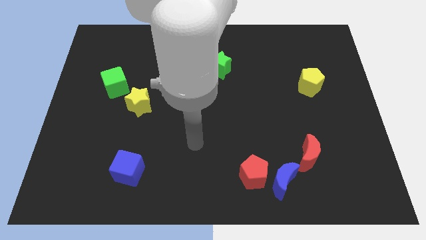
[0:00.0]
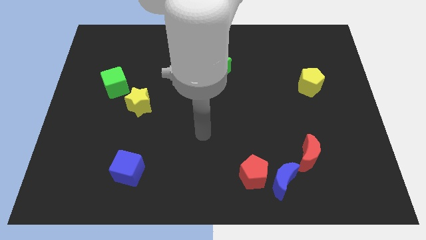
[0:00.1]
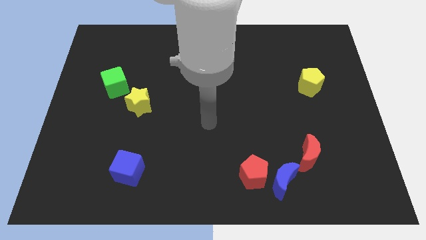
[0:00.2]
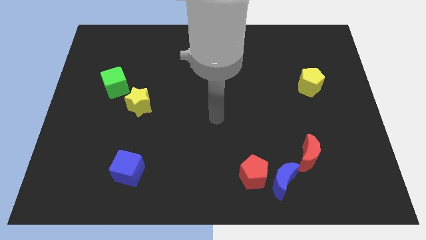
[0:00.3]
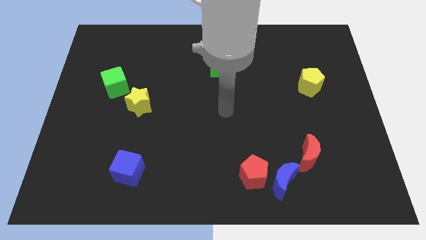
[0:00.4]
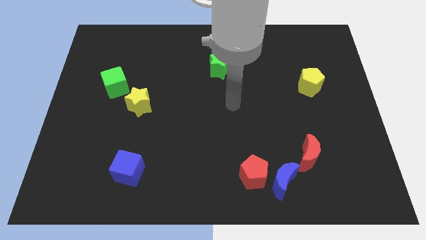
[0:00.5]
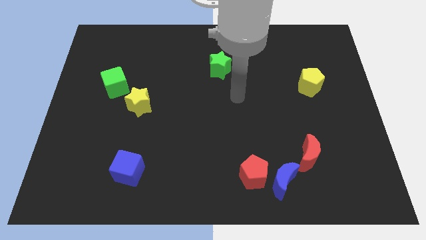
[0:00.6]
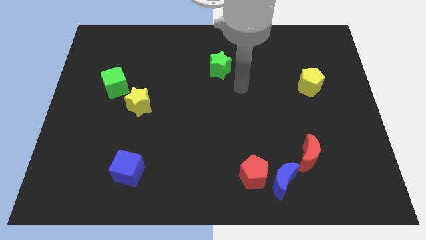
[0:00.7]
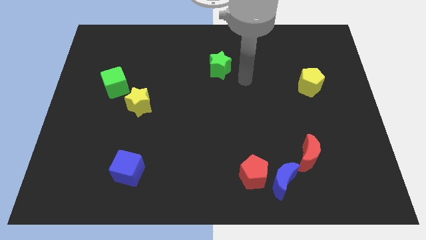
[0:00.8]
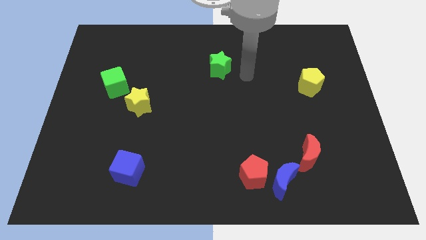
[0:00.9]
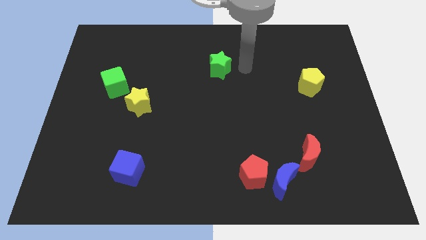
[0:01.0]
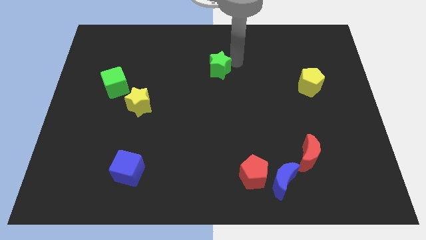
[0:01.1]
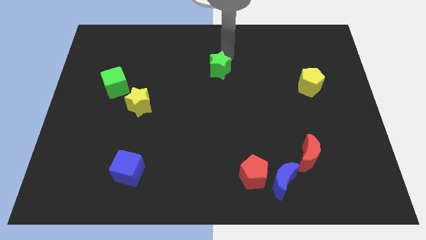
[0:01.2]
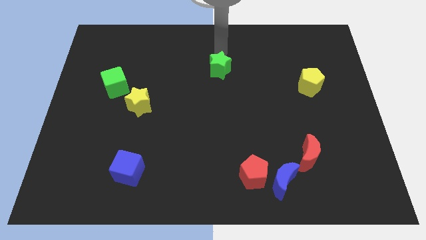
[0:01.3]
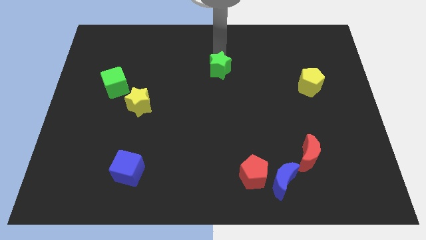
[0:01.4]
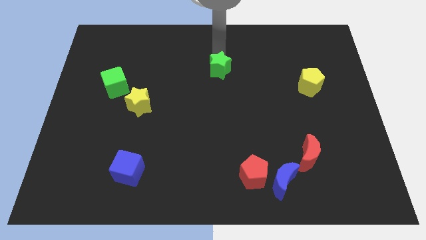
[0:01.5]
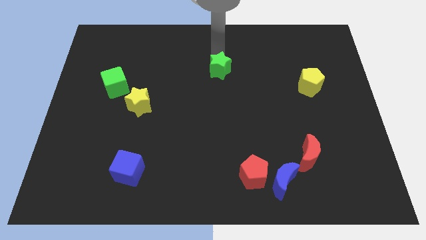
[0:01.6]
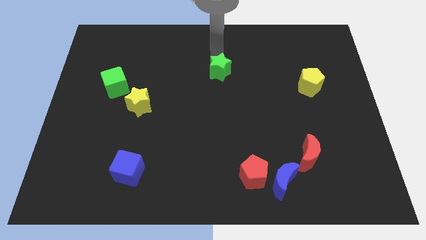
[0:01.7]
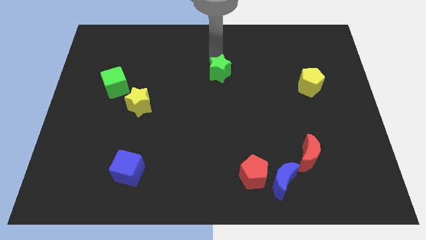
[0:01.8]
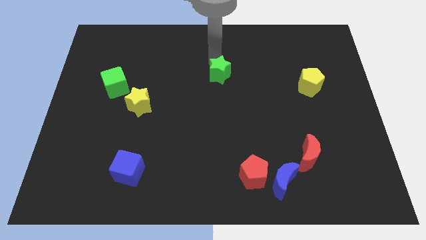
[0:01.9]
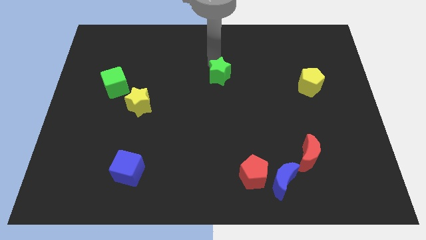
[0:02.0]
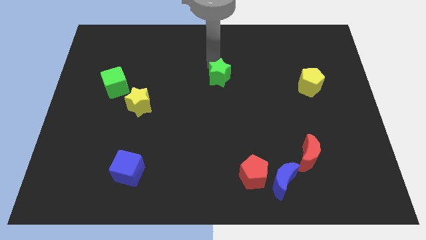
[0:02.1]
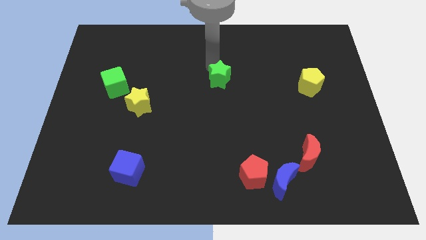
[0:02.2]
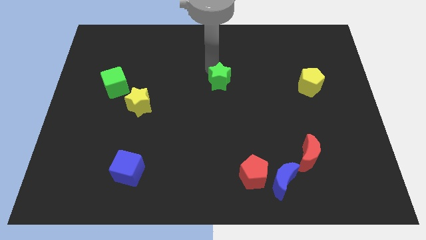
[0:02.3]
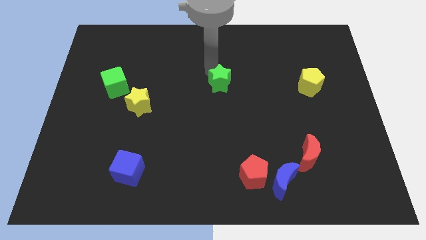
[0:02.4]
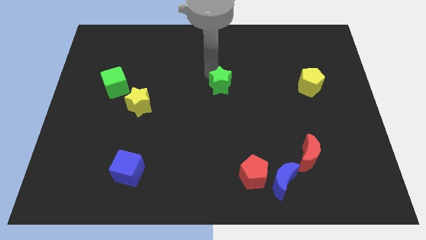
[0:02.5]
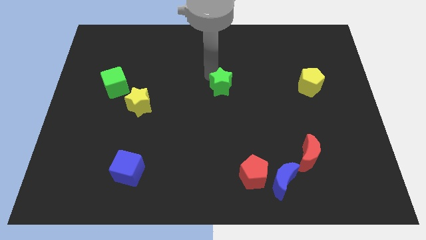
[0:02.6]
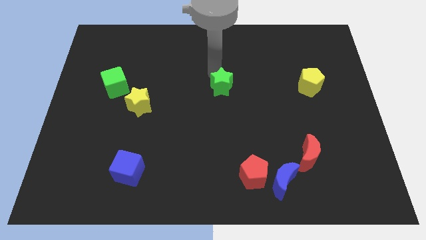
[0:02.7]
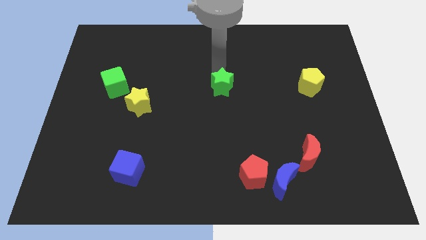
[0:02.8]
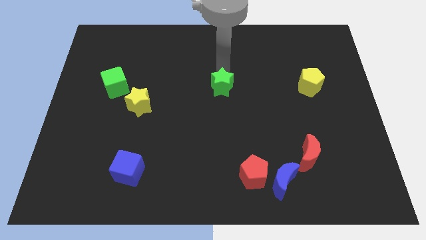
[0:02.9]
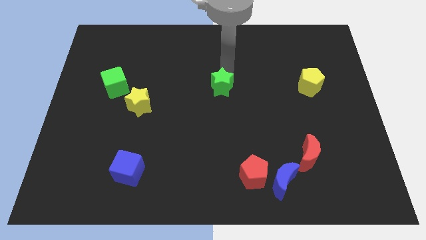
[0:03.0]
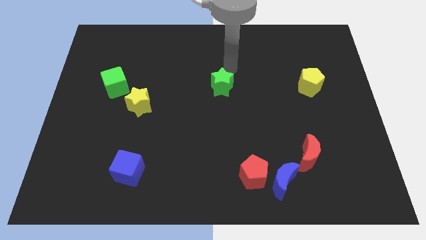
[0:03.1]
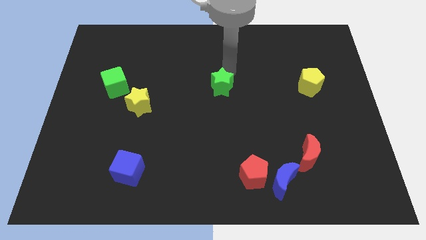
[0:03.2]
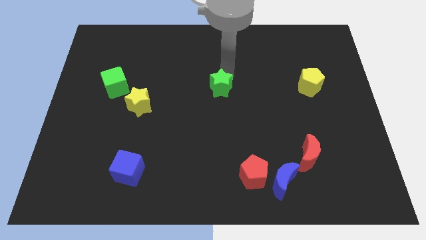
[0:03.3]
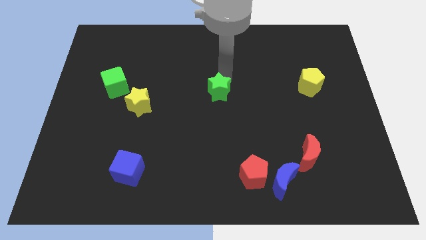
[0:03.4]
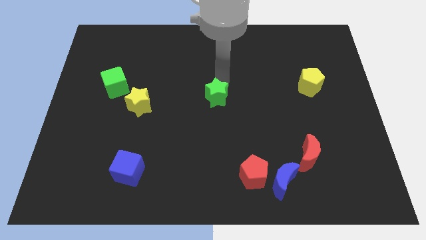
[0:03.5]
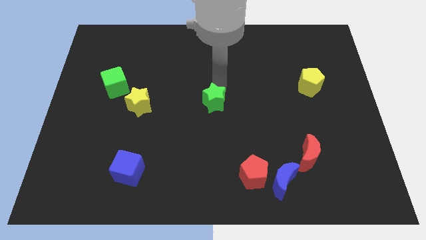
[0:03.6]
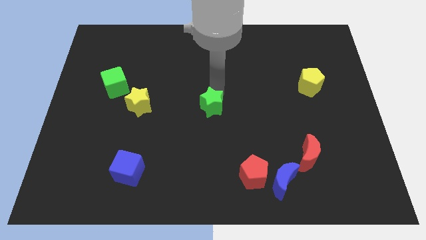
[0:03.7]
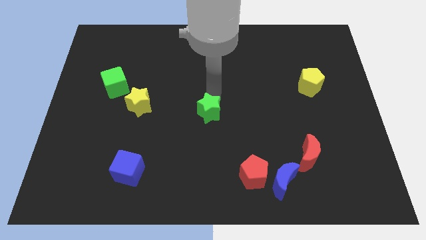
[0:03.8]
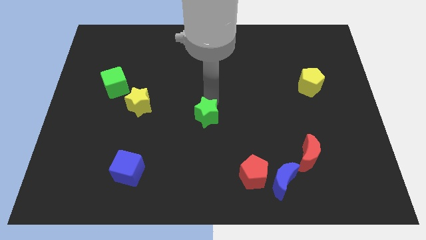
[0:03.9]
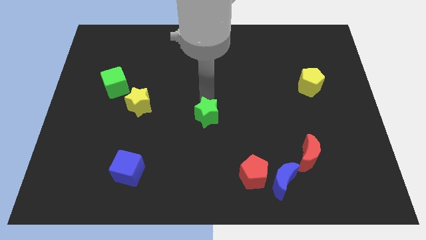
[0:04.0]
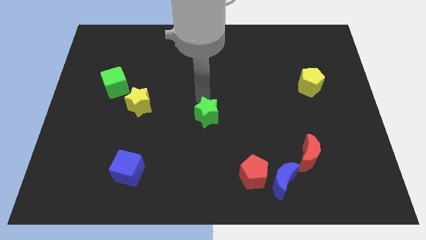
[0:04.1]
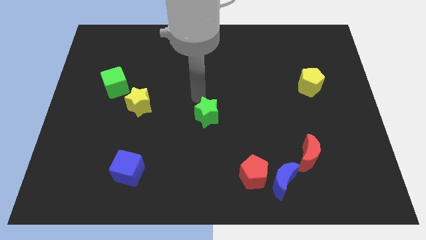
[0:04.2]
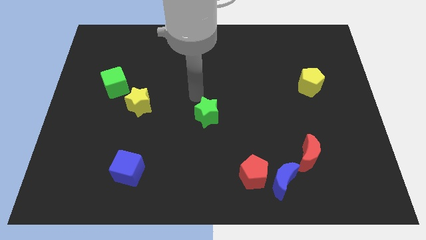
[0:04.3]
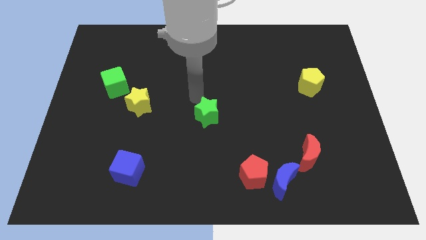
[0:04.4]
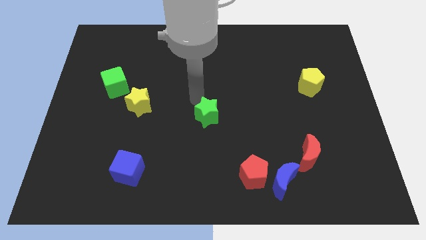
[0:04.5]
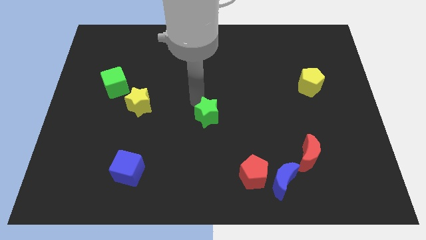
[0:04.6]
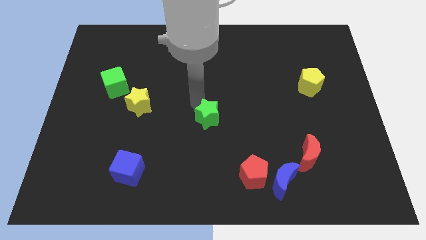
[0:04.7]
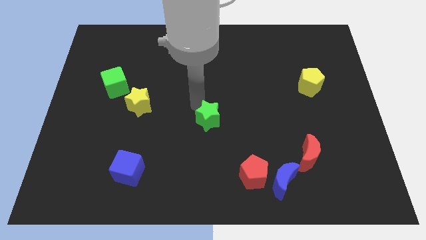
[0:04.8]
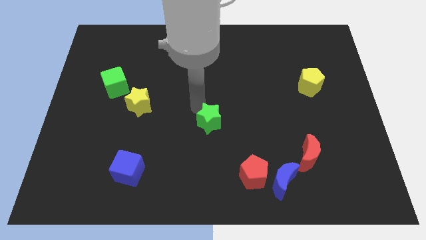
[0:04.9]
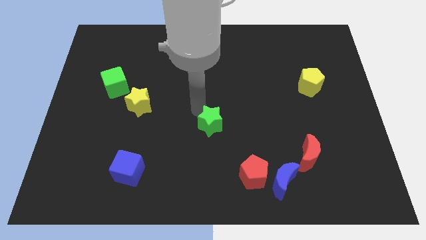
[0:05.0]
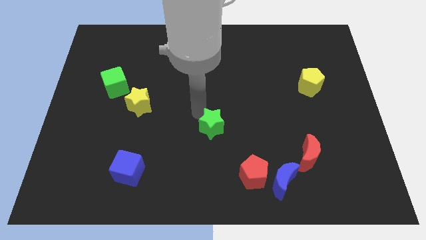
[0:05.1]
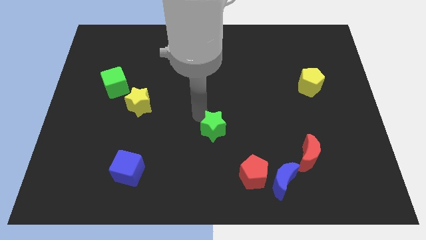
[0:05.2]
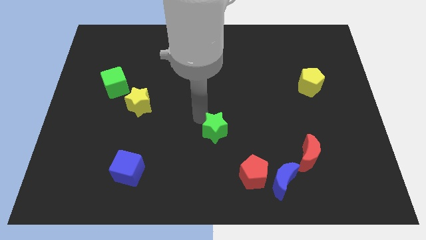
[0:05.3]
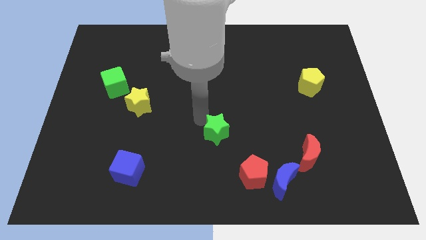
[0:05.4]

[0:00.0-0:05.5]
push the green star downwards

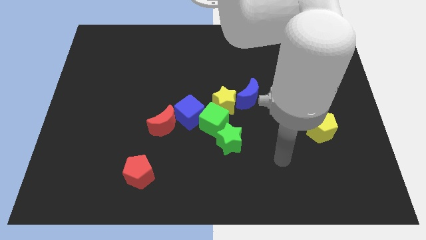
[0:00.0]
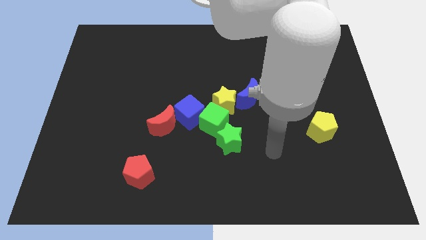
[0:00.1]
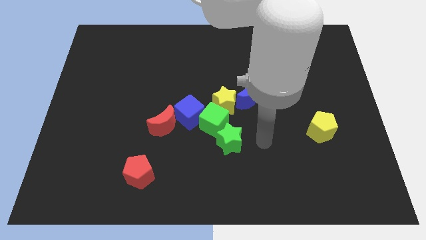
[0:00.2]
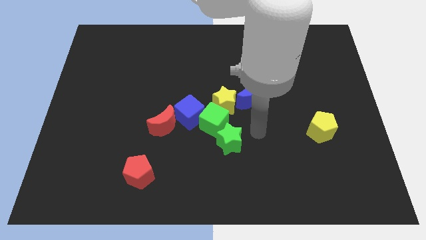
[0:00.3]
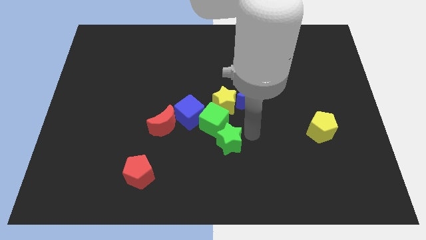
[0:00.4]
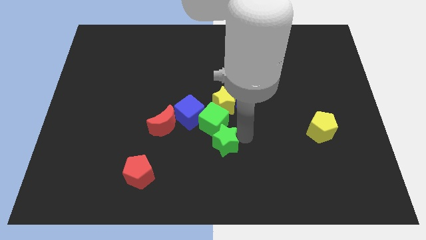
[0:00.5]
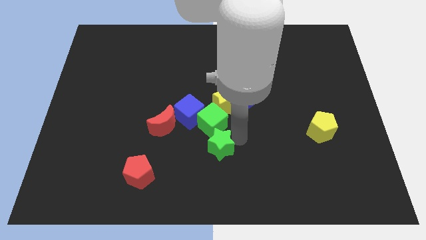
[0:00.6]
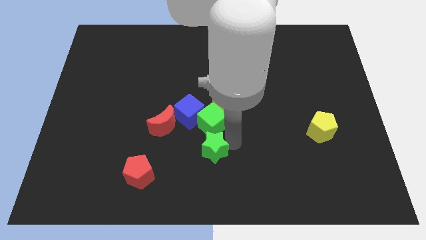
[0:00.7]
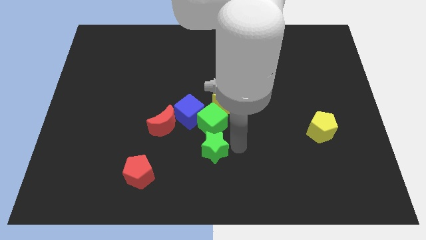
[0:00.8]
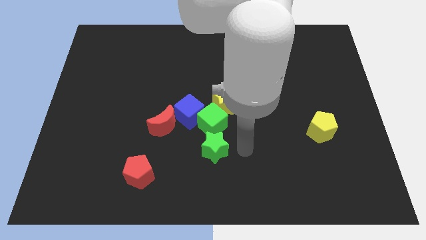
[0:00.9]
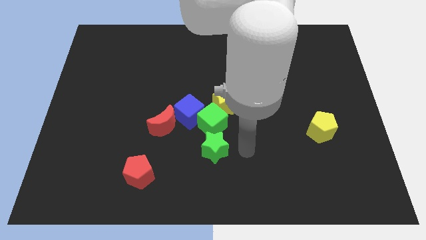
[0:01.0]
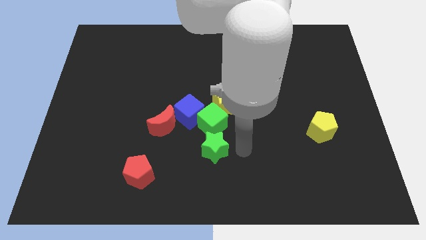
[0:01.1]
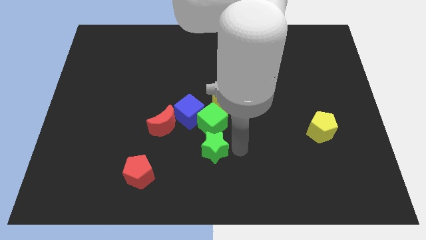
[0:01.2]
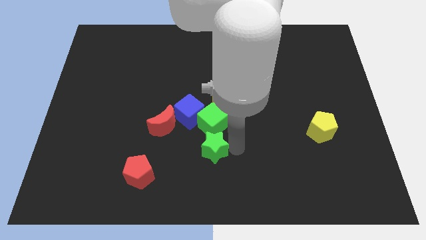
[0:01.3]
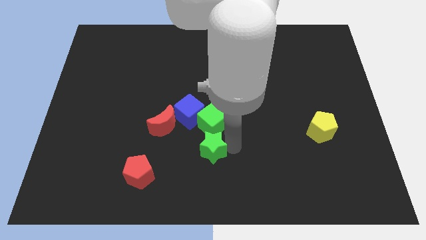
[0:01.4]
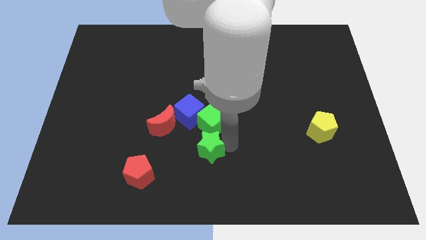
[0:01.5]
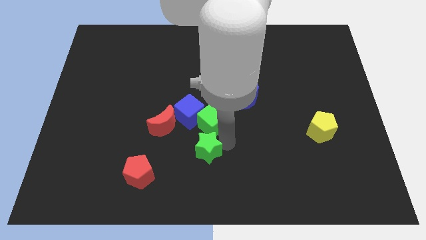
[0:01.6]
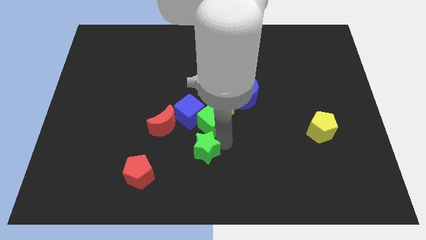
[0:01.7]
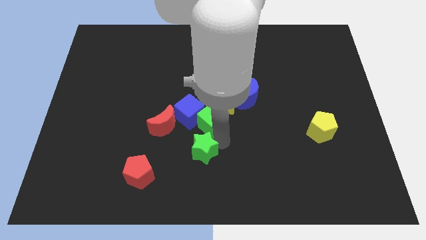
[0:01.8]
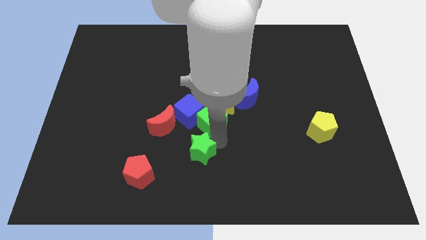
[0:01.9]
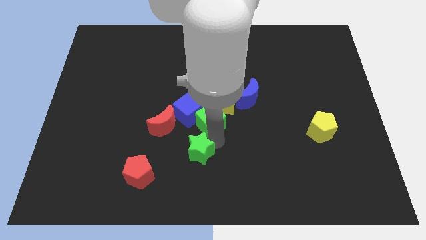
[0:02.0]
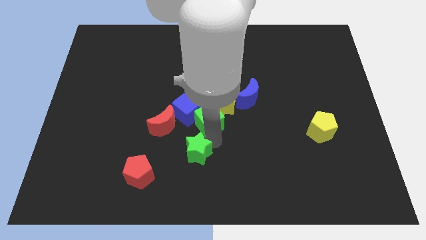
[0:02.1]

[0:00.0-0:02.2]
slide the green star slightly to the left
